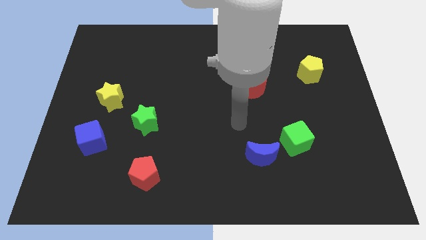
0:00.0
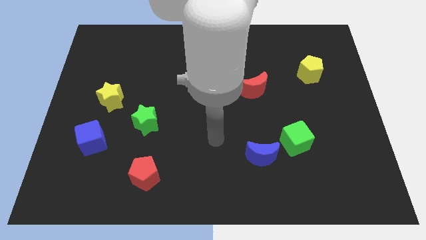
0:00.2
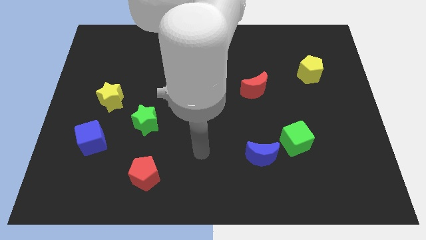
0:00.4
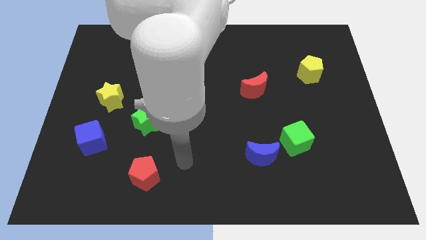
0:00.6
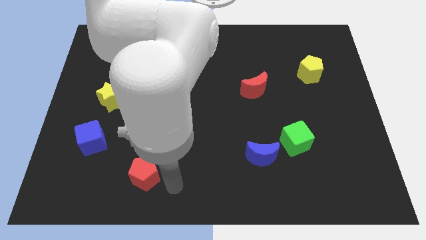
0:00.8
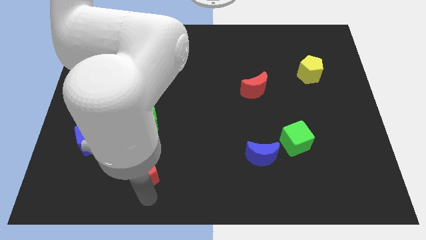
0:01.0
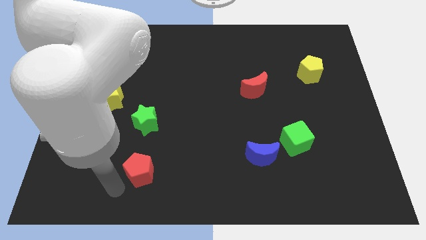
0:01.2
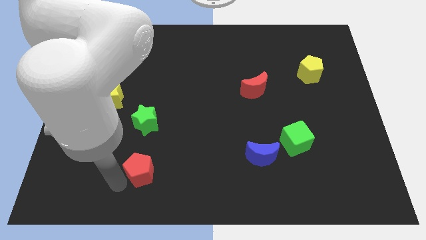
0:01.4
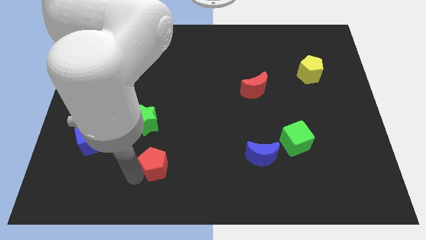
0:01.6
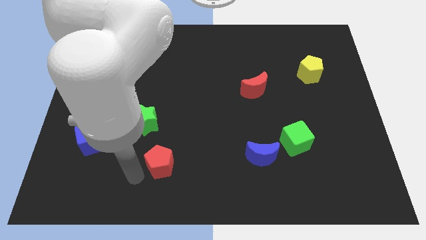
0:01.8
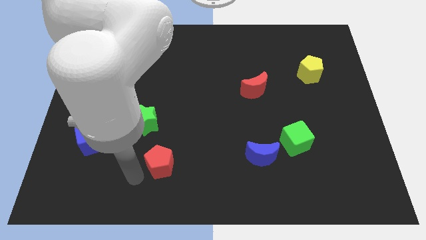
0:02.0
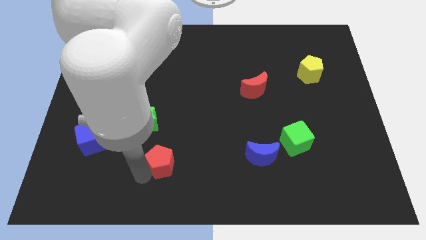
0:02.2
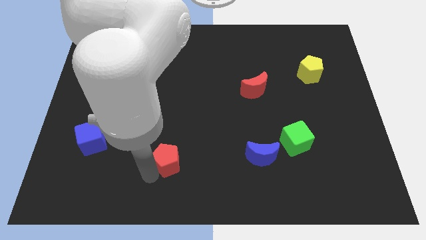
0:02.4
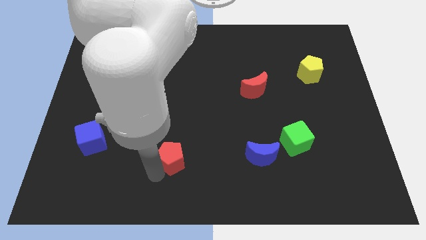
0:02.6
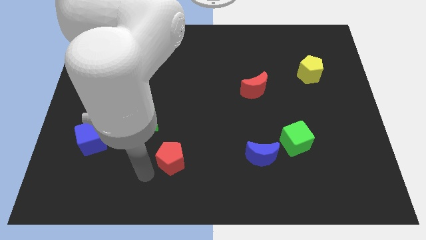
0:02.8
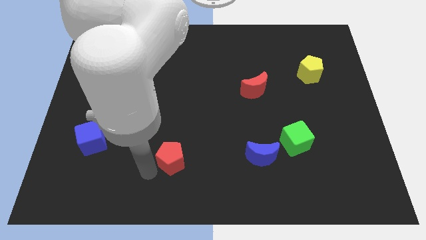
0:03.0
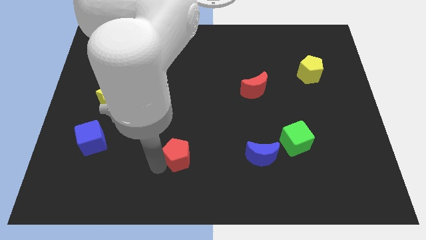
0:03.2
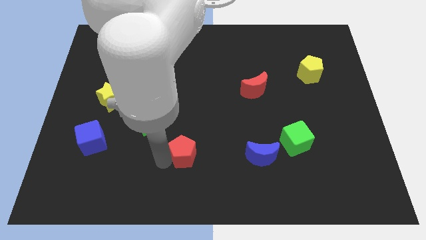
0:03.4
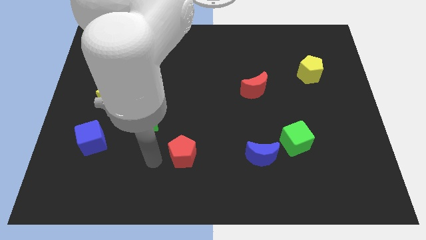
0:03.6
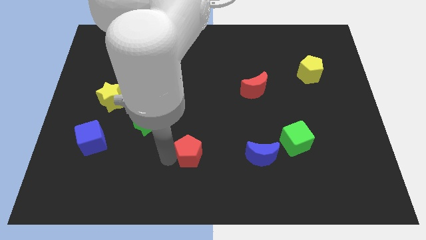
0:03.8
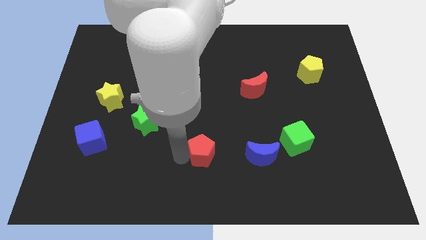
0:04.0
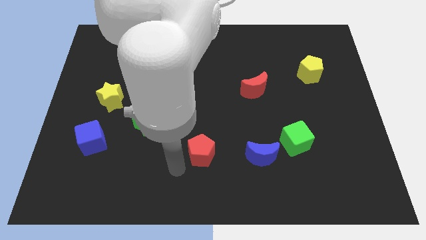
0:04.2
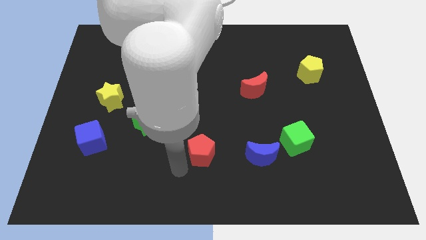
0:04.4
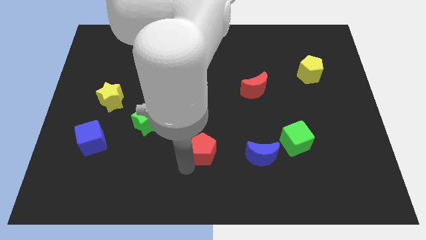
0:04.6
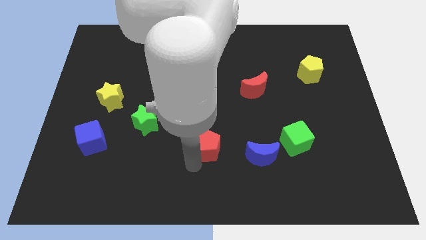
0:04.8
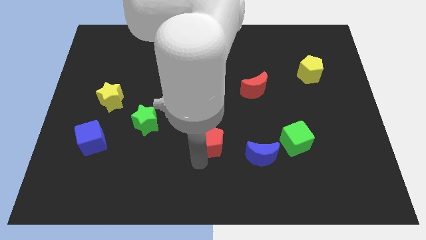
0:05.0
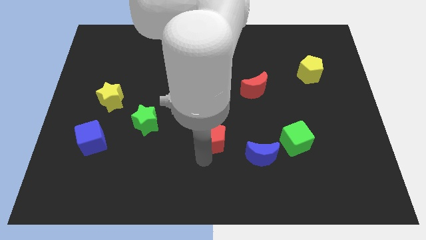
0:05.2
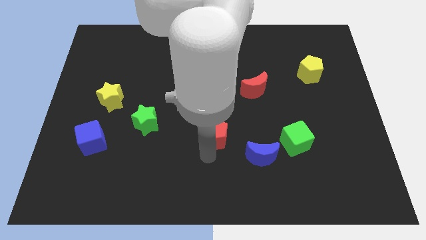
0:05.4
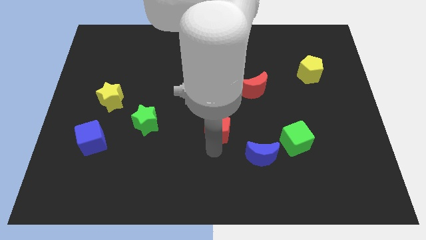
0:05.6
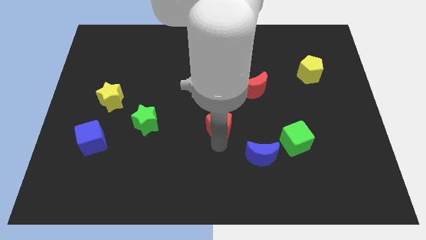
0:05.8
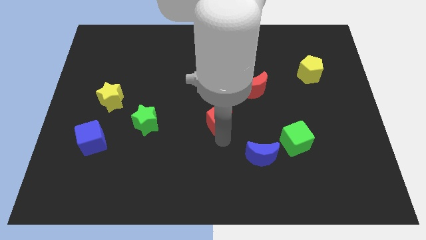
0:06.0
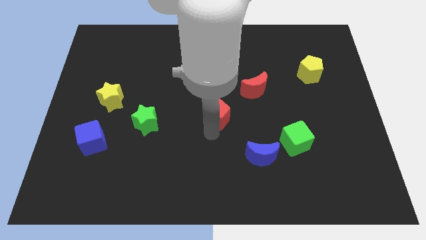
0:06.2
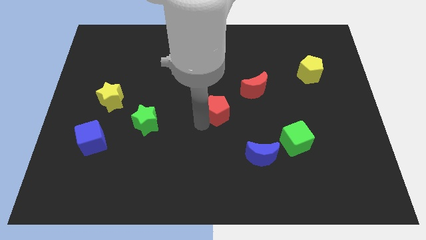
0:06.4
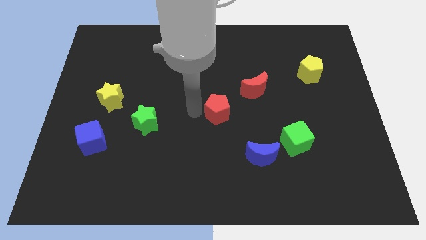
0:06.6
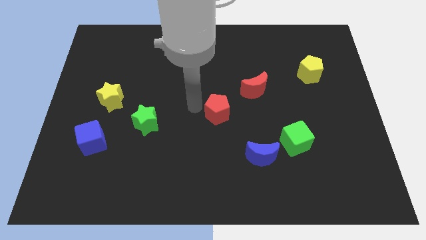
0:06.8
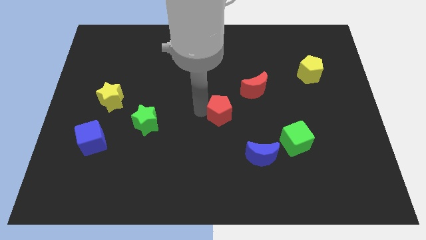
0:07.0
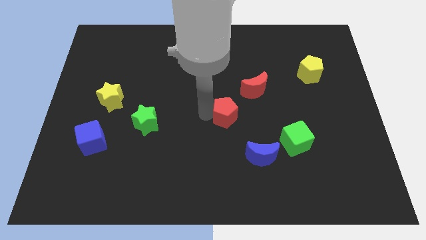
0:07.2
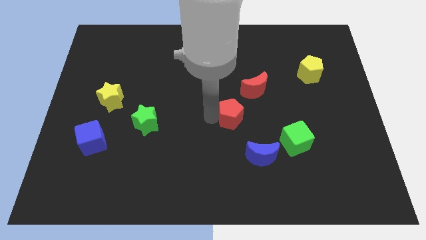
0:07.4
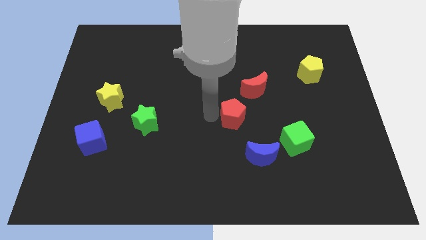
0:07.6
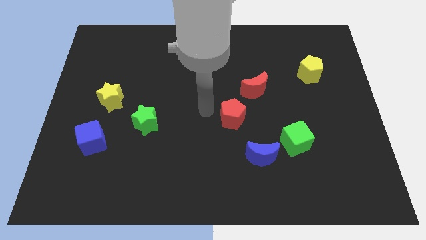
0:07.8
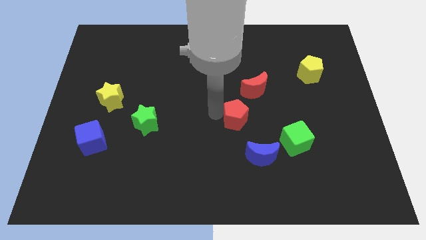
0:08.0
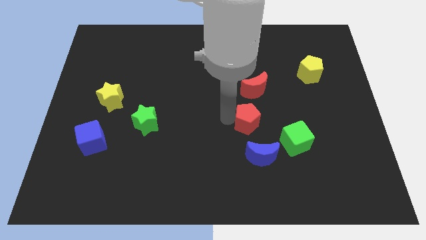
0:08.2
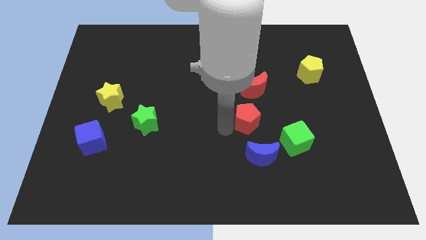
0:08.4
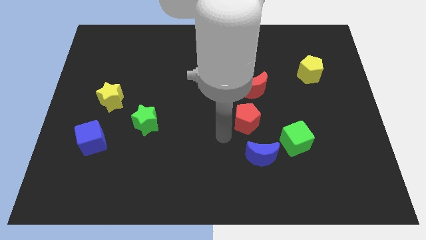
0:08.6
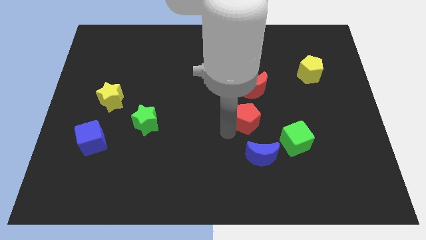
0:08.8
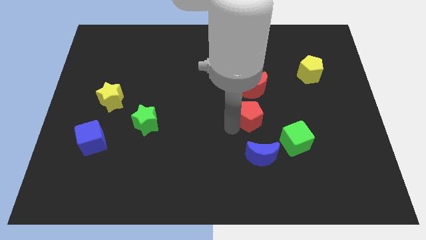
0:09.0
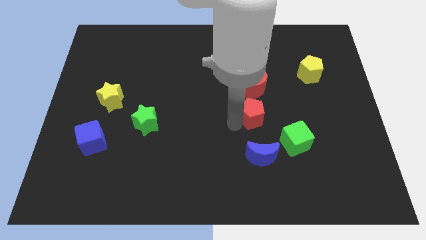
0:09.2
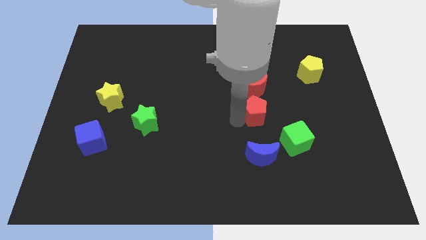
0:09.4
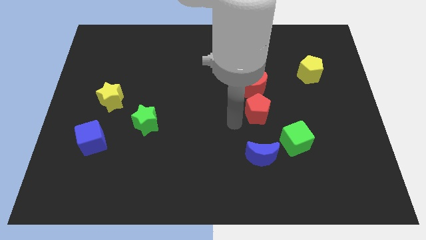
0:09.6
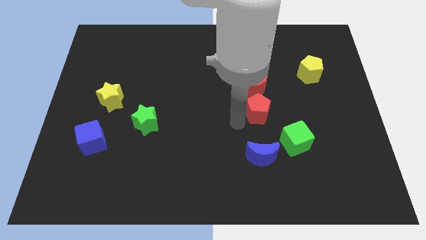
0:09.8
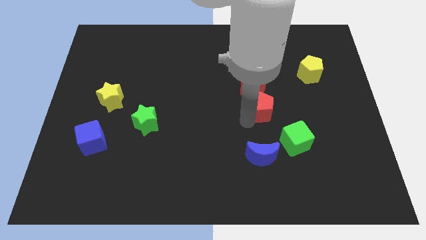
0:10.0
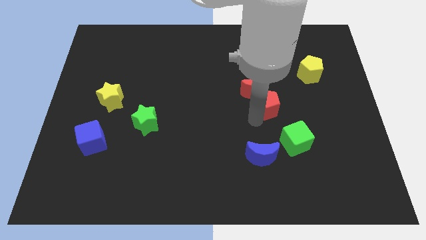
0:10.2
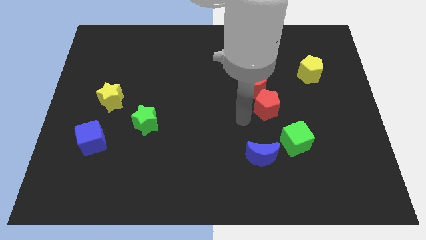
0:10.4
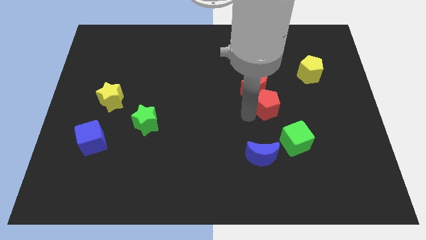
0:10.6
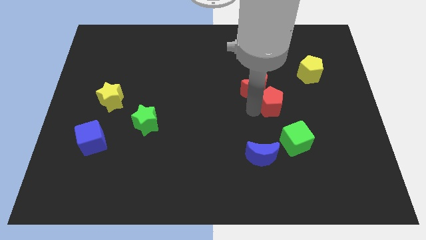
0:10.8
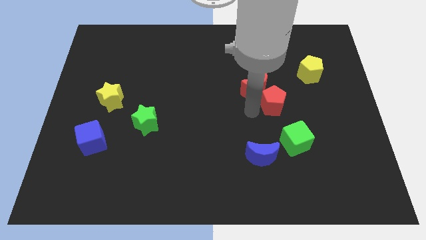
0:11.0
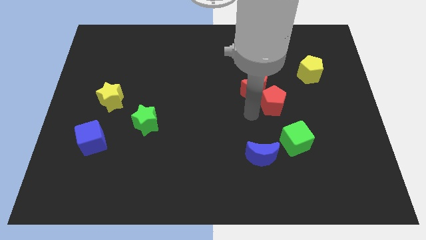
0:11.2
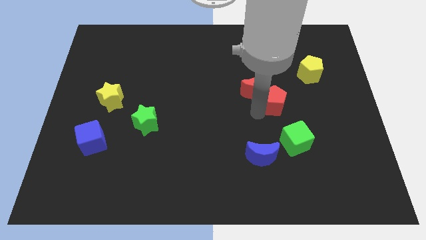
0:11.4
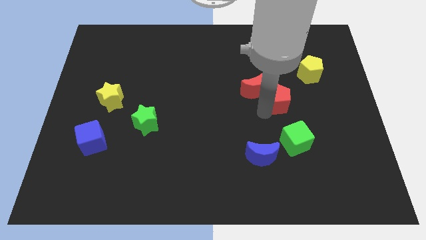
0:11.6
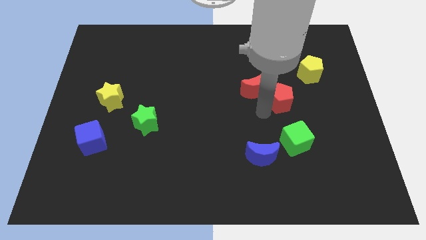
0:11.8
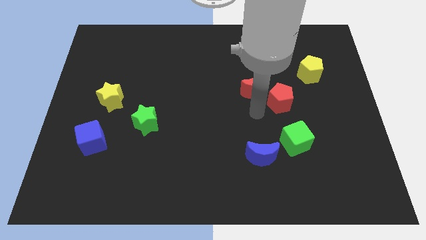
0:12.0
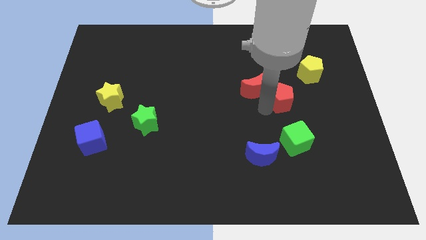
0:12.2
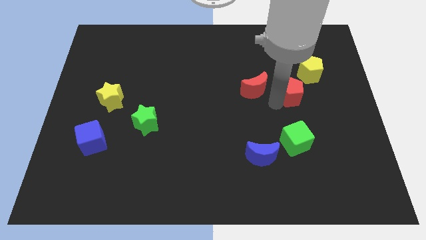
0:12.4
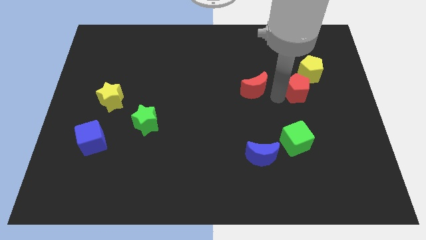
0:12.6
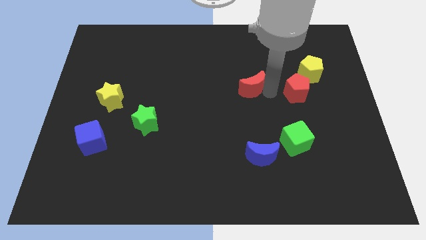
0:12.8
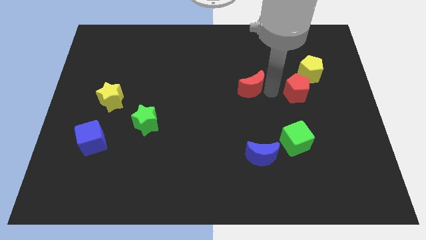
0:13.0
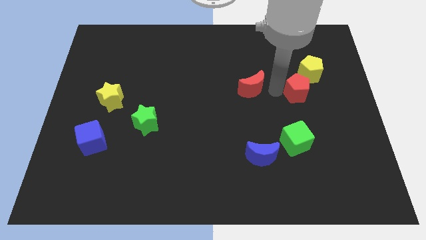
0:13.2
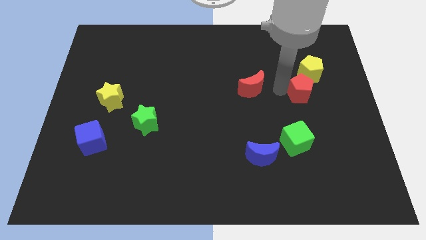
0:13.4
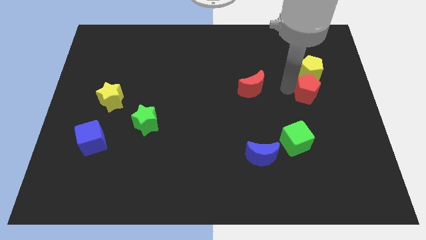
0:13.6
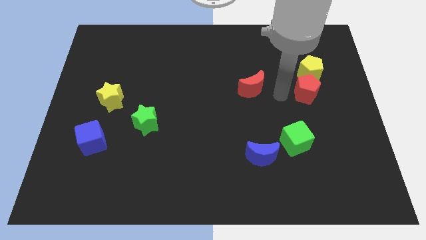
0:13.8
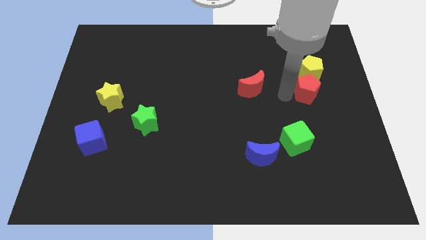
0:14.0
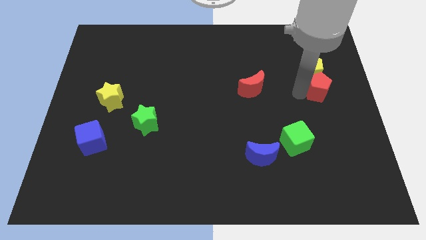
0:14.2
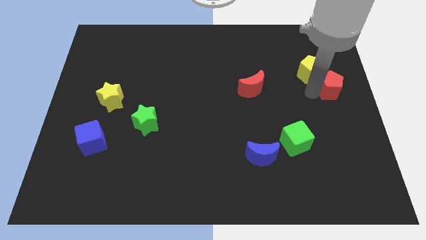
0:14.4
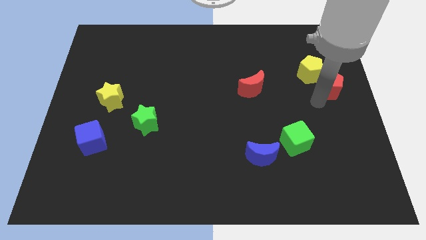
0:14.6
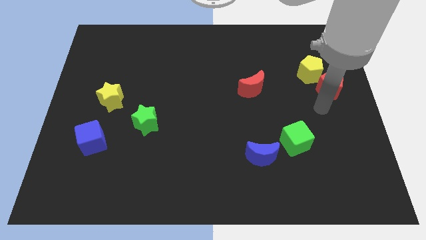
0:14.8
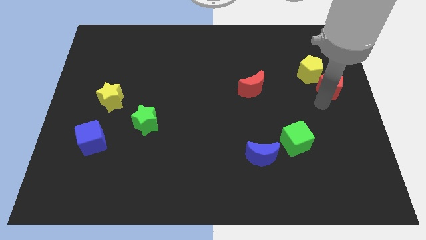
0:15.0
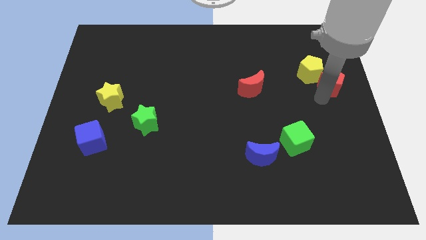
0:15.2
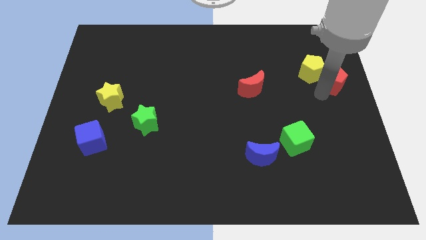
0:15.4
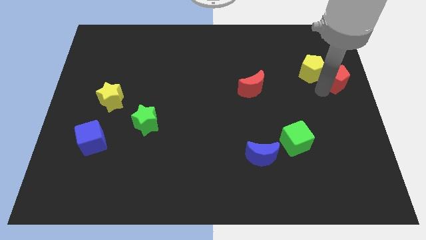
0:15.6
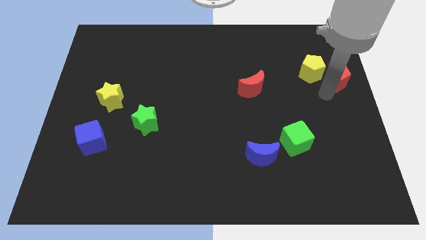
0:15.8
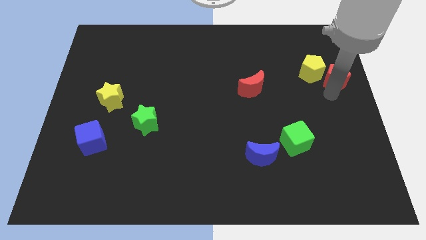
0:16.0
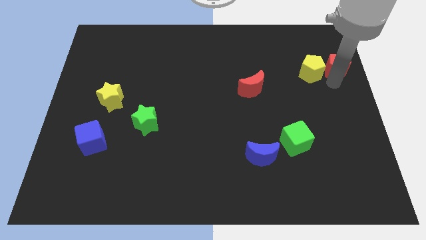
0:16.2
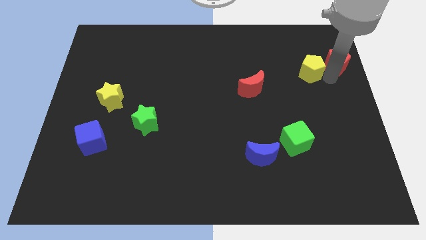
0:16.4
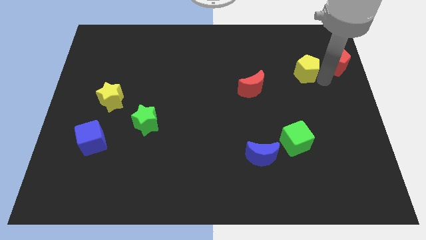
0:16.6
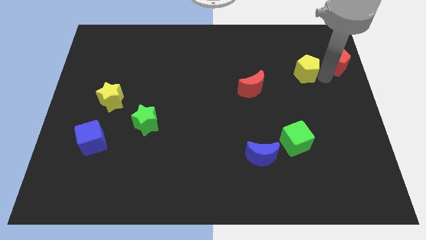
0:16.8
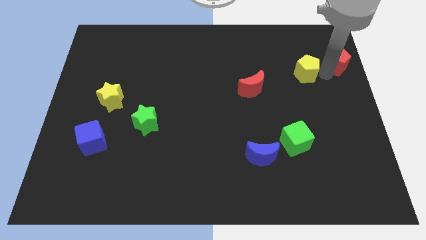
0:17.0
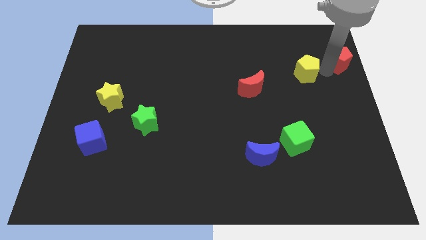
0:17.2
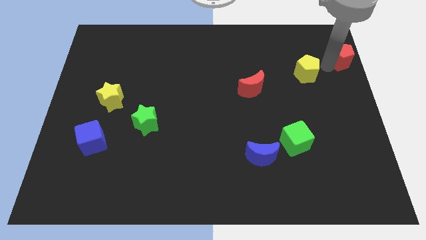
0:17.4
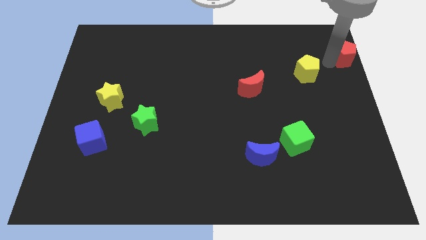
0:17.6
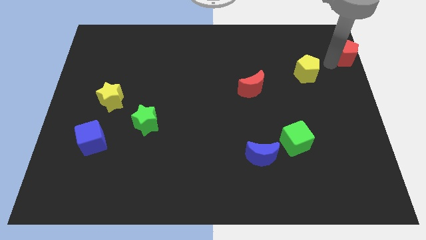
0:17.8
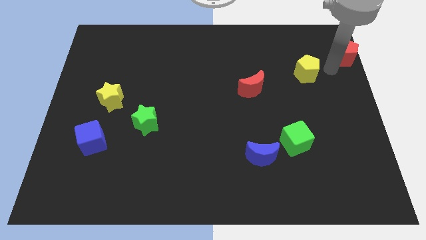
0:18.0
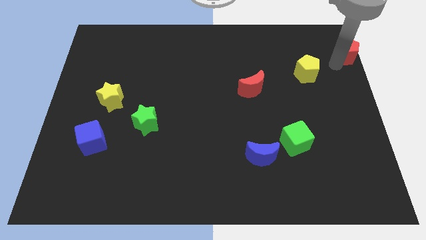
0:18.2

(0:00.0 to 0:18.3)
slide the red pentagon to the upper right corner
